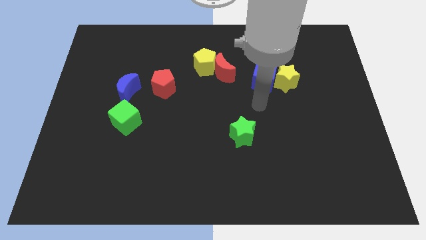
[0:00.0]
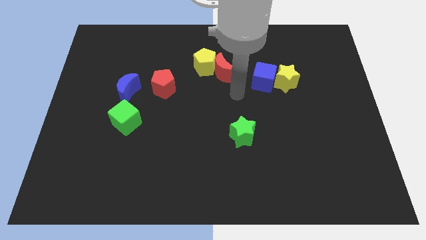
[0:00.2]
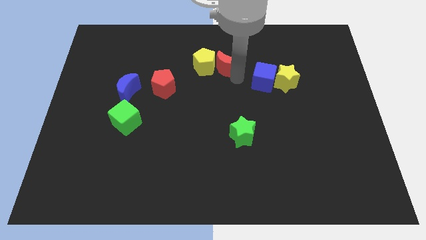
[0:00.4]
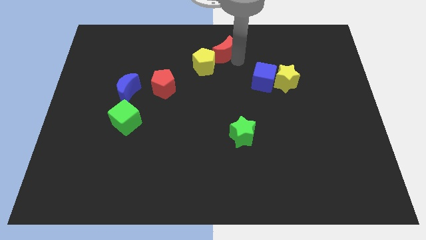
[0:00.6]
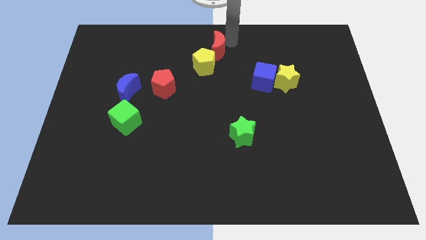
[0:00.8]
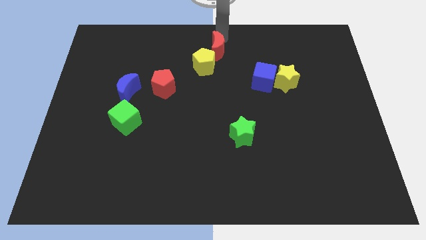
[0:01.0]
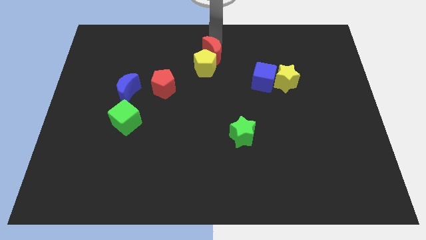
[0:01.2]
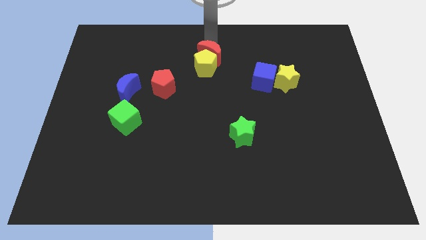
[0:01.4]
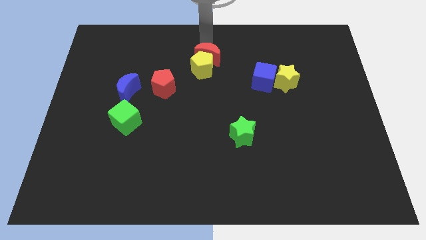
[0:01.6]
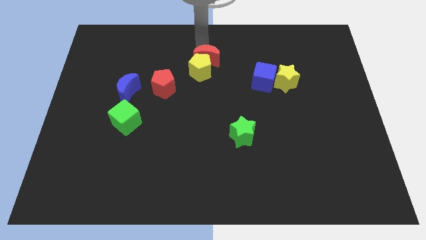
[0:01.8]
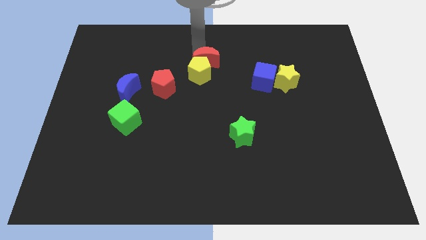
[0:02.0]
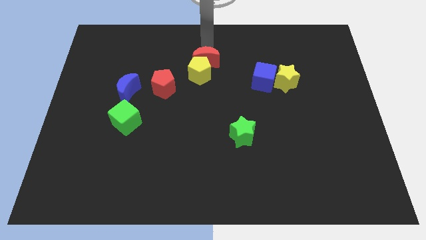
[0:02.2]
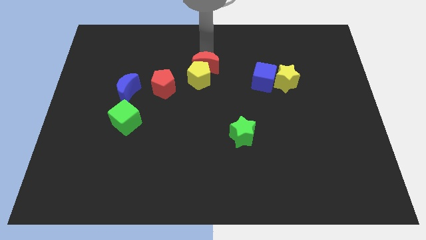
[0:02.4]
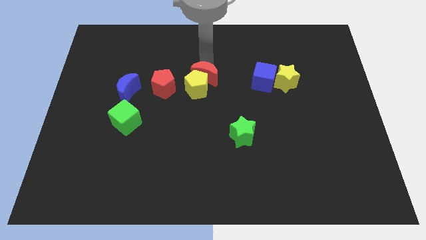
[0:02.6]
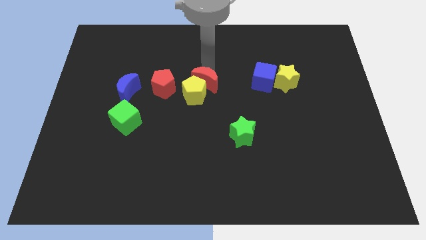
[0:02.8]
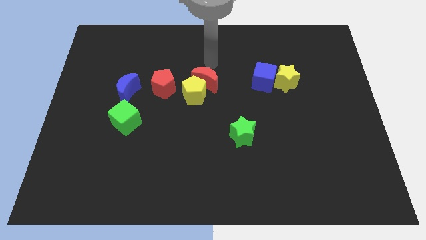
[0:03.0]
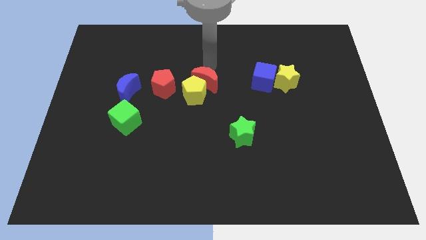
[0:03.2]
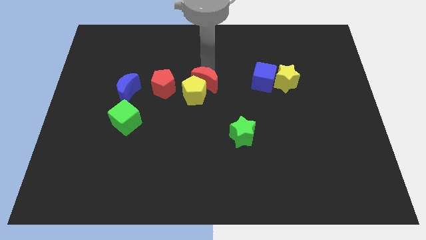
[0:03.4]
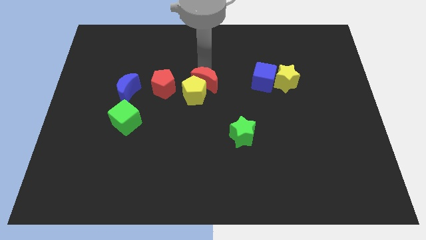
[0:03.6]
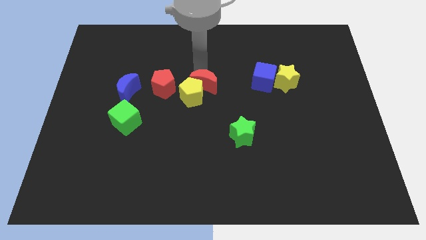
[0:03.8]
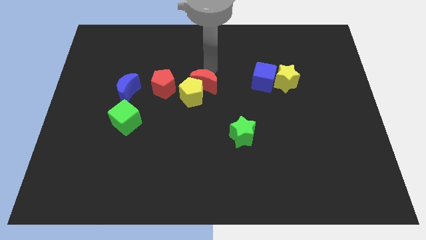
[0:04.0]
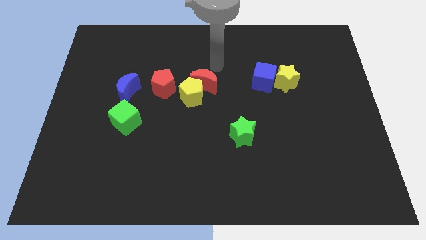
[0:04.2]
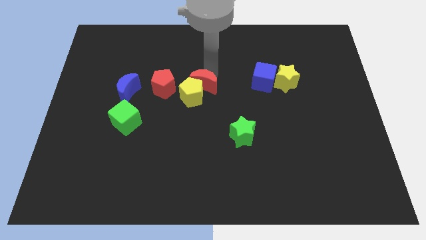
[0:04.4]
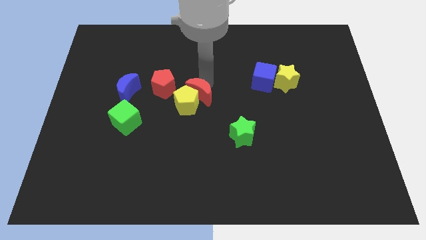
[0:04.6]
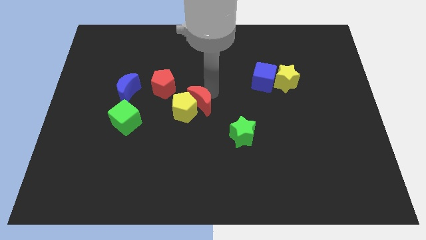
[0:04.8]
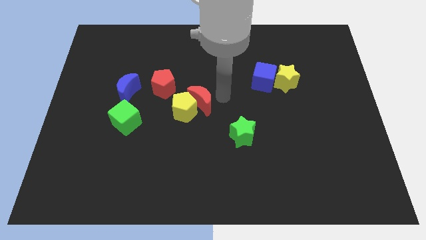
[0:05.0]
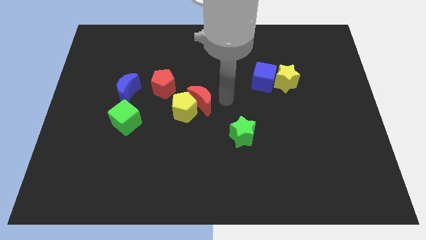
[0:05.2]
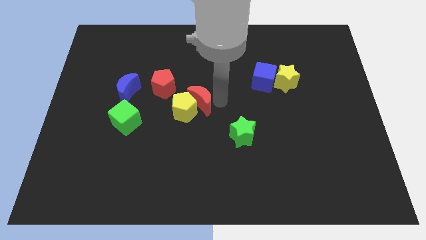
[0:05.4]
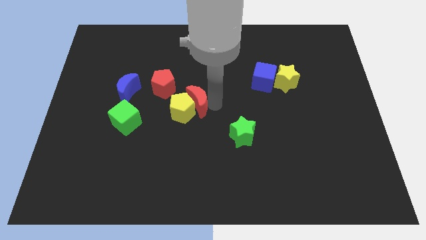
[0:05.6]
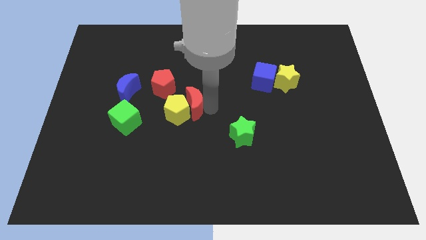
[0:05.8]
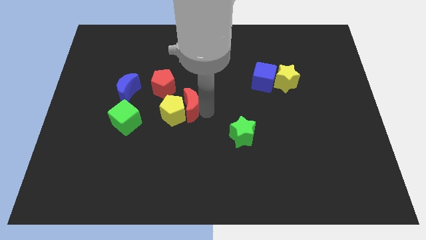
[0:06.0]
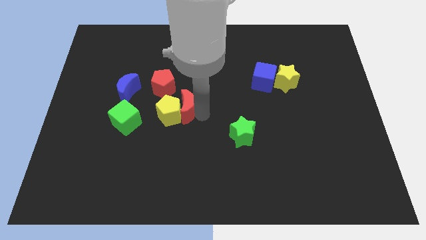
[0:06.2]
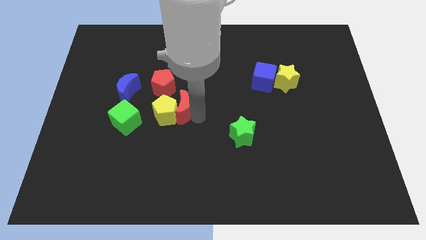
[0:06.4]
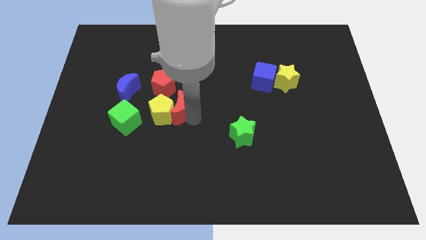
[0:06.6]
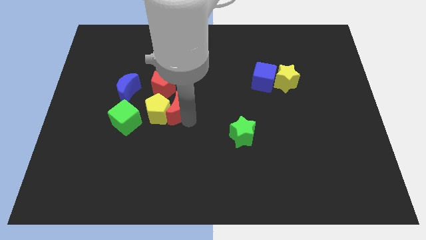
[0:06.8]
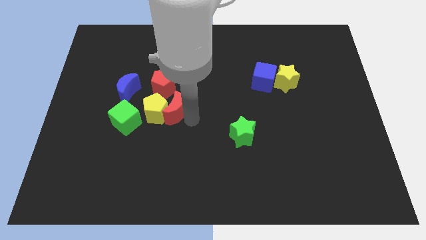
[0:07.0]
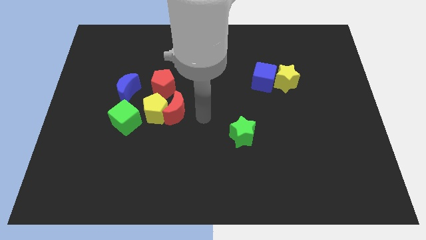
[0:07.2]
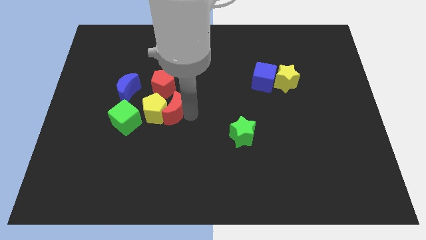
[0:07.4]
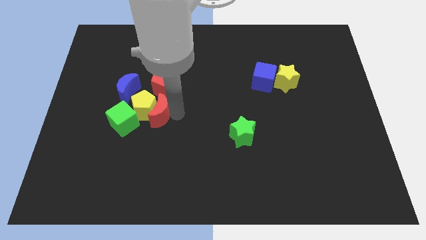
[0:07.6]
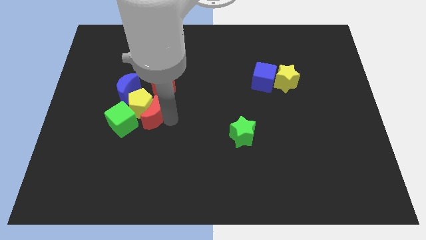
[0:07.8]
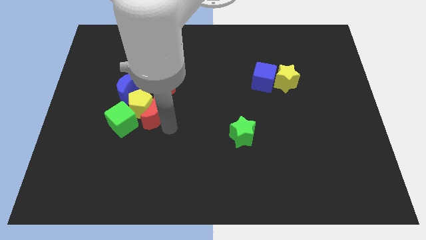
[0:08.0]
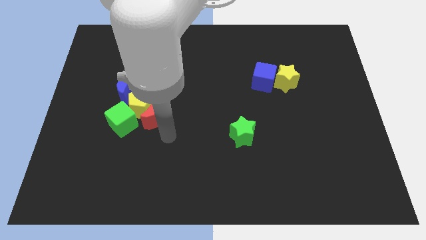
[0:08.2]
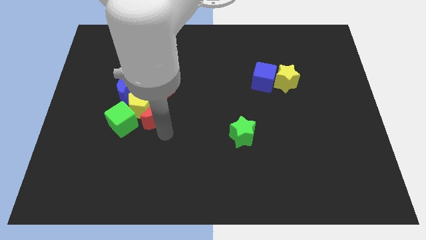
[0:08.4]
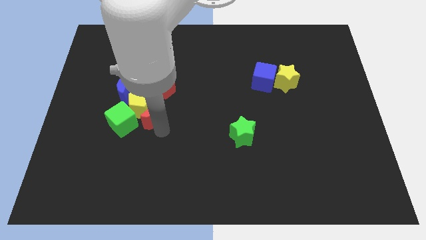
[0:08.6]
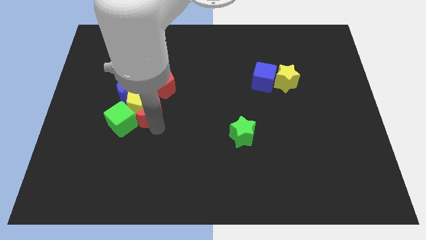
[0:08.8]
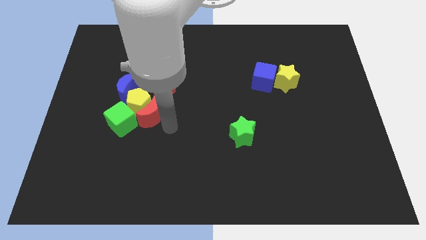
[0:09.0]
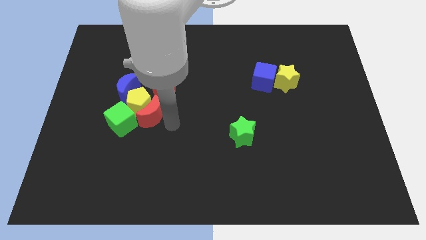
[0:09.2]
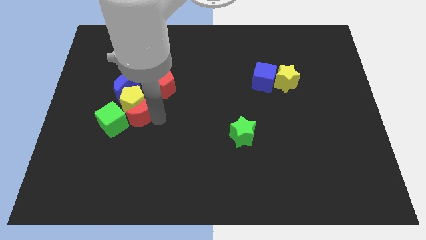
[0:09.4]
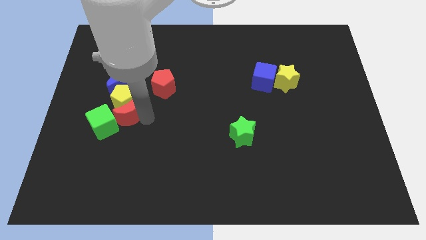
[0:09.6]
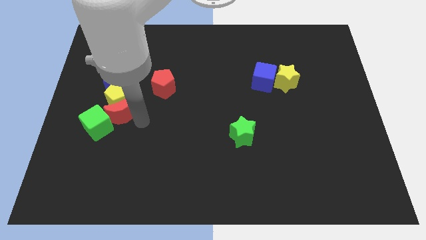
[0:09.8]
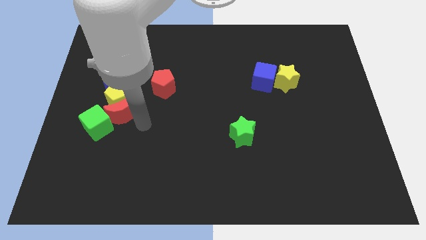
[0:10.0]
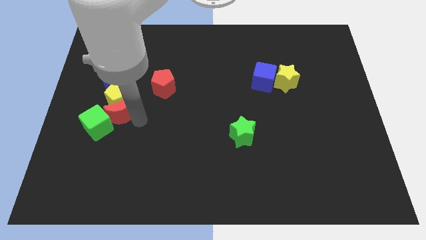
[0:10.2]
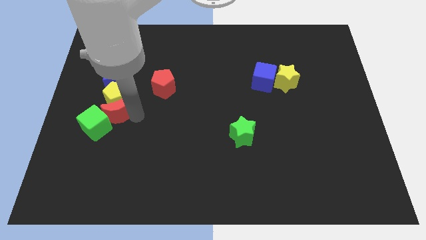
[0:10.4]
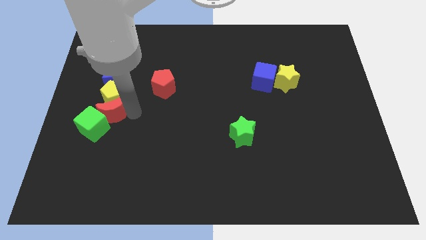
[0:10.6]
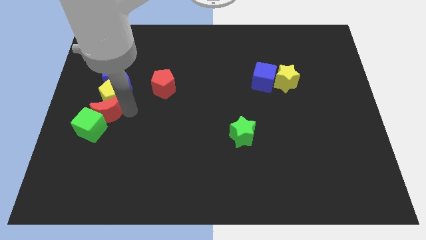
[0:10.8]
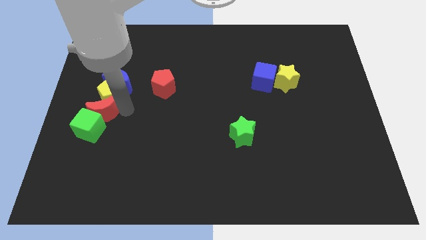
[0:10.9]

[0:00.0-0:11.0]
put the red moon to the left side of the board

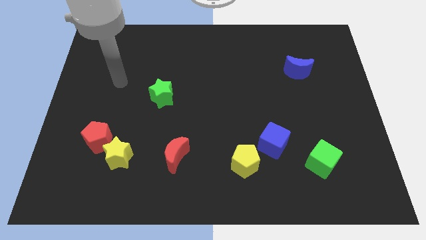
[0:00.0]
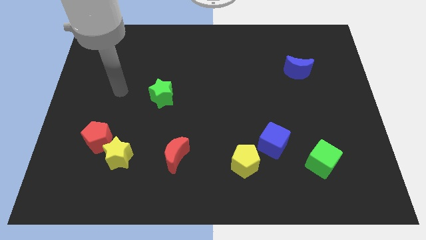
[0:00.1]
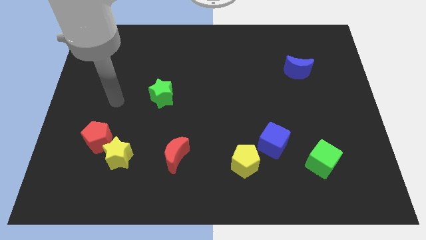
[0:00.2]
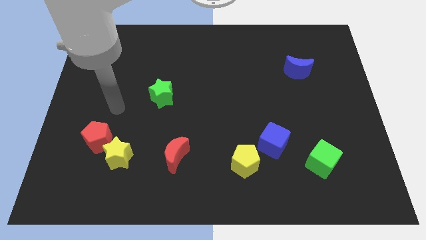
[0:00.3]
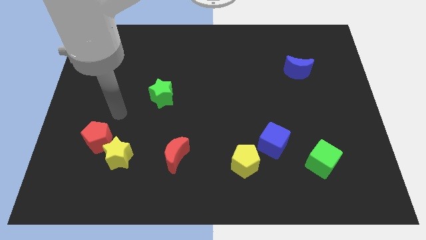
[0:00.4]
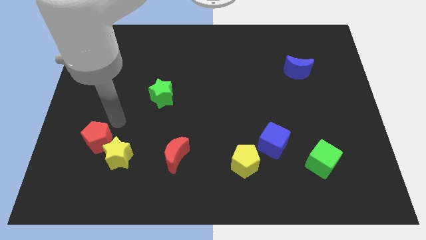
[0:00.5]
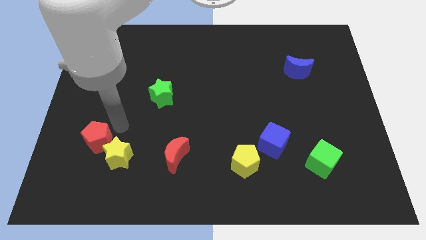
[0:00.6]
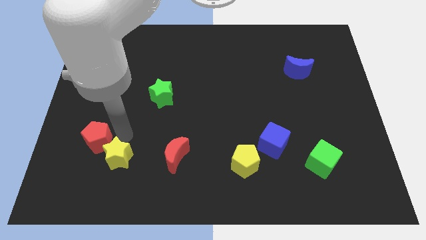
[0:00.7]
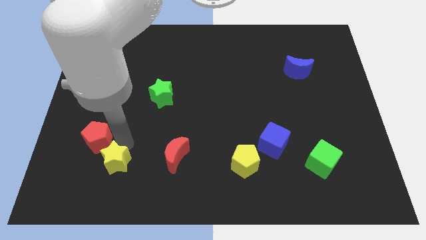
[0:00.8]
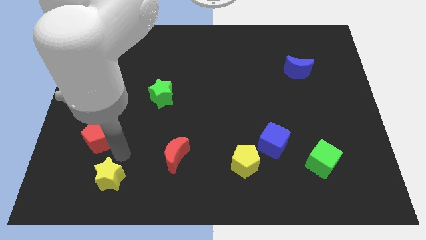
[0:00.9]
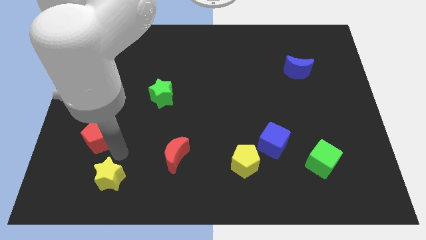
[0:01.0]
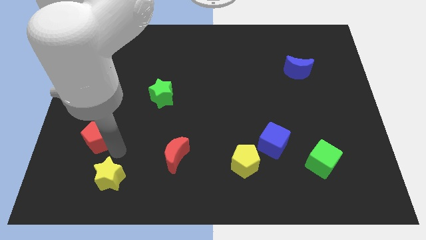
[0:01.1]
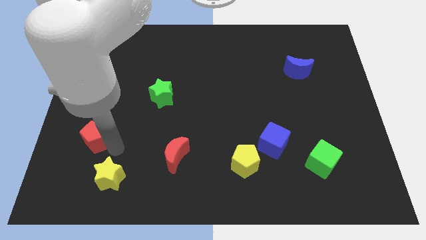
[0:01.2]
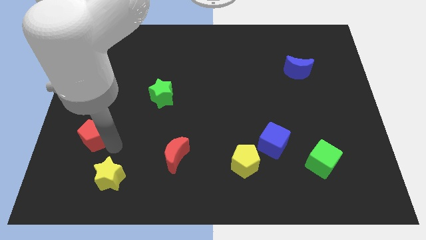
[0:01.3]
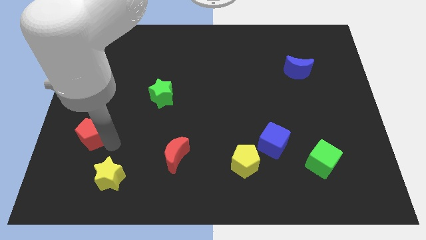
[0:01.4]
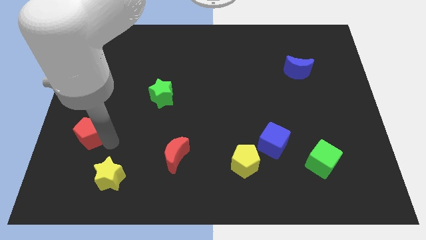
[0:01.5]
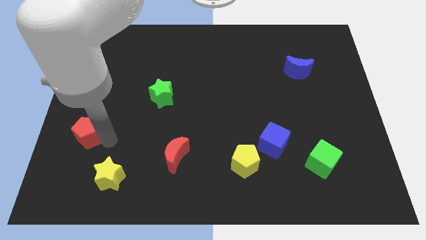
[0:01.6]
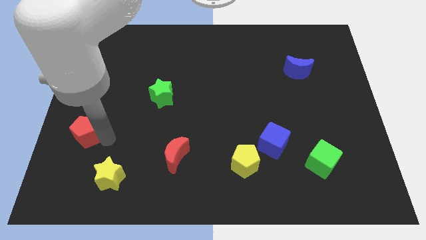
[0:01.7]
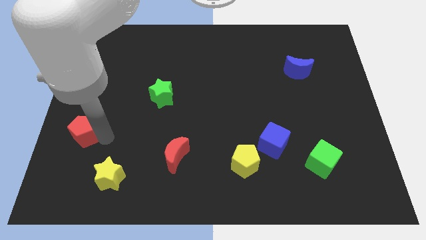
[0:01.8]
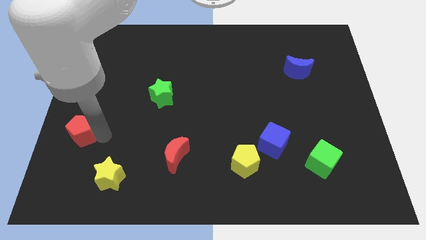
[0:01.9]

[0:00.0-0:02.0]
move the red pentagon to the center left
